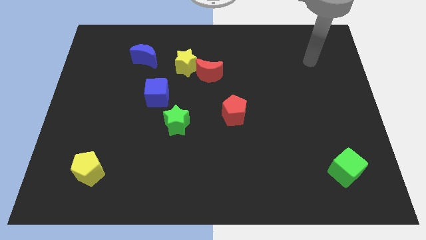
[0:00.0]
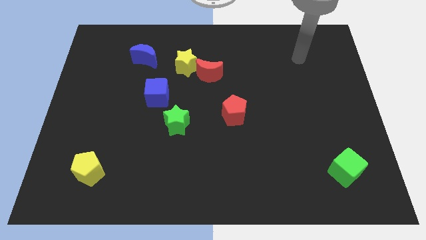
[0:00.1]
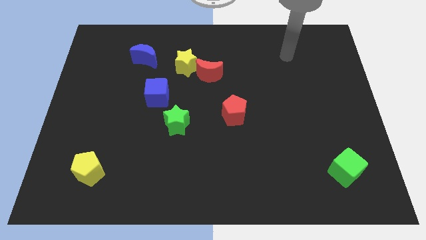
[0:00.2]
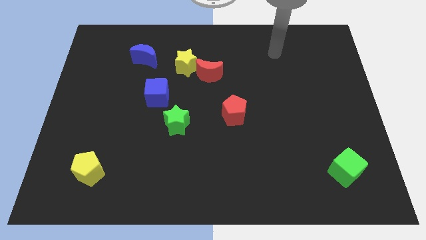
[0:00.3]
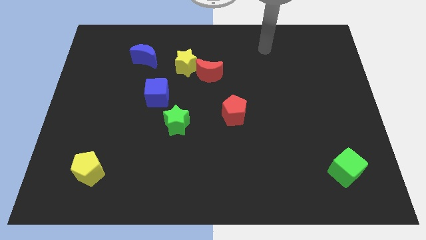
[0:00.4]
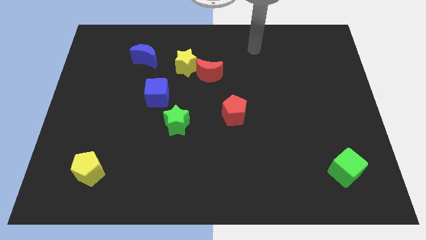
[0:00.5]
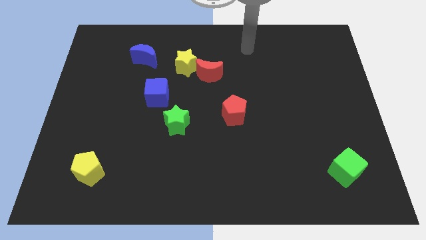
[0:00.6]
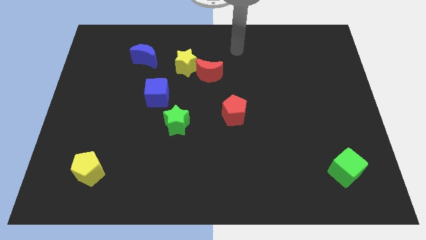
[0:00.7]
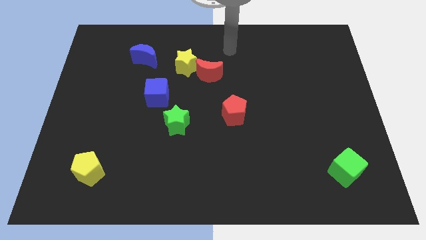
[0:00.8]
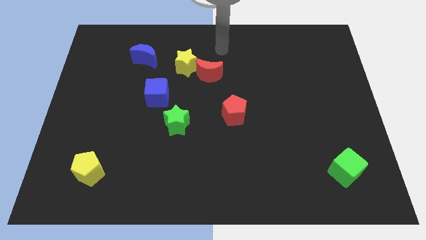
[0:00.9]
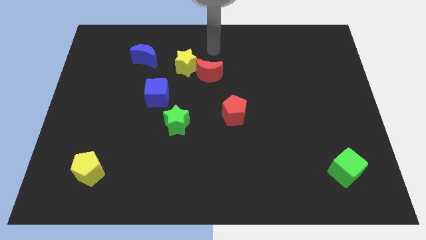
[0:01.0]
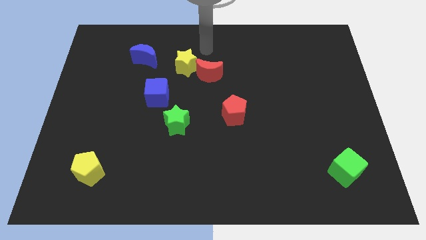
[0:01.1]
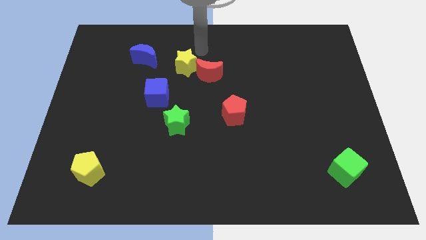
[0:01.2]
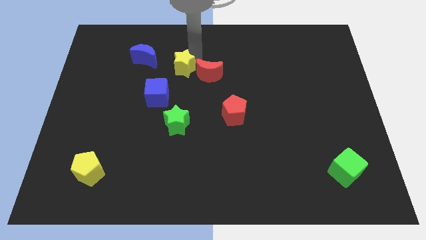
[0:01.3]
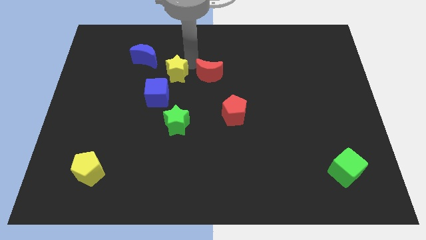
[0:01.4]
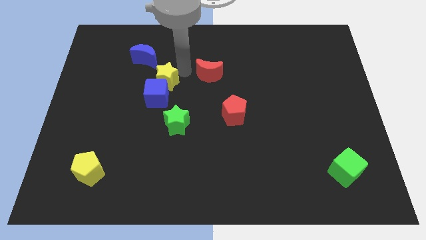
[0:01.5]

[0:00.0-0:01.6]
pull the red moon apart from the yellow star

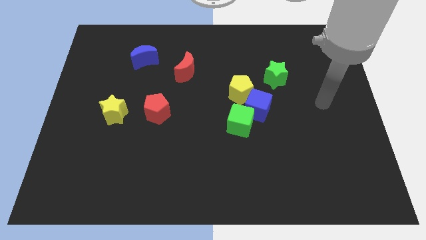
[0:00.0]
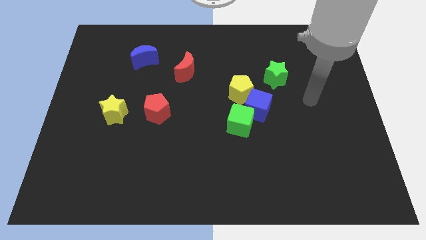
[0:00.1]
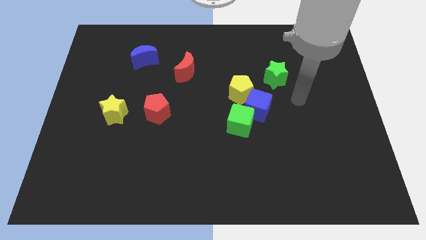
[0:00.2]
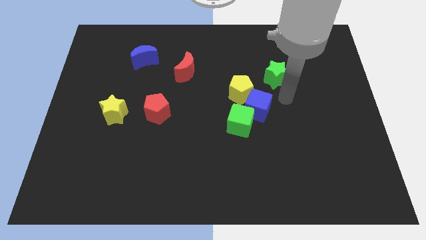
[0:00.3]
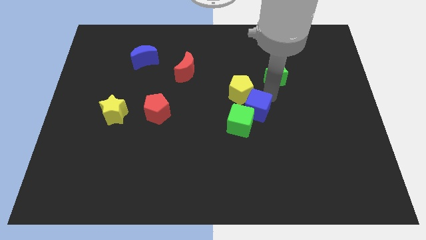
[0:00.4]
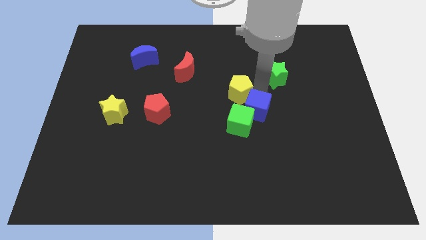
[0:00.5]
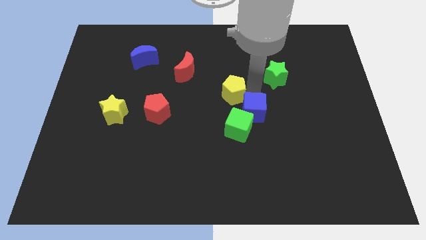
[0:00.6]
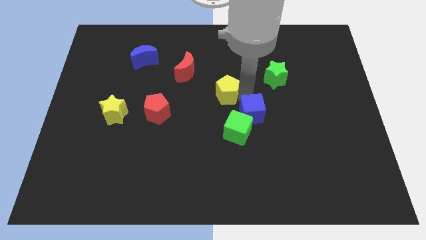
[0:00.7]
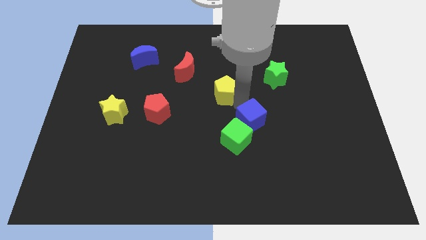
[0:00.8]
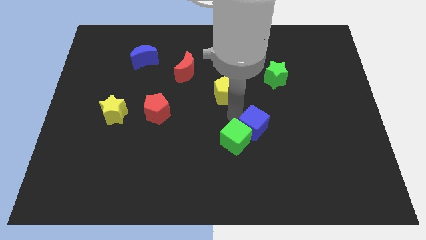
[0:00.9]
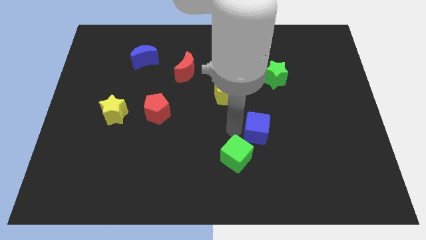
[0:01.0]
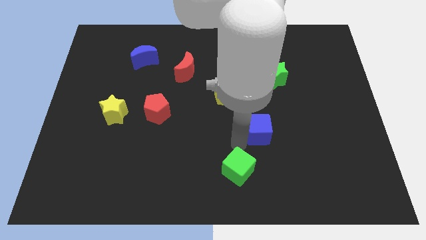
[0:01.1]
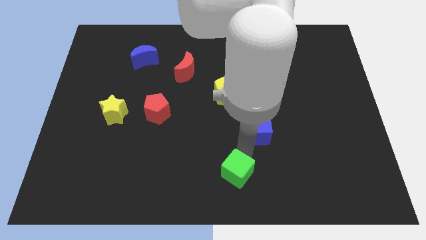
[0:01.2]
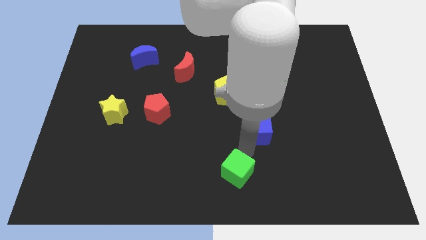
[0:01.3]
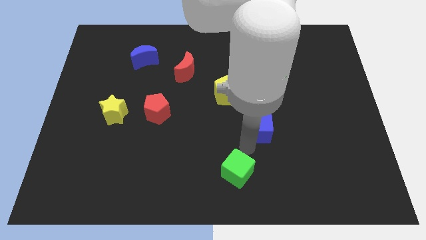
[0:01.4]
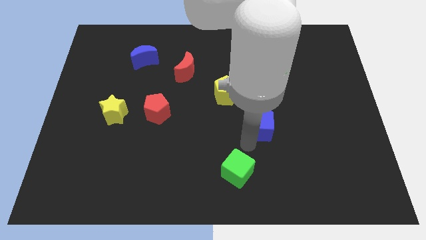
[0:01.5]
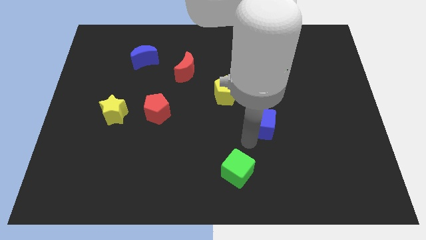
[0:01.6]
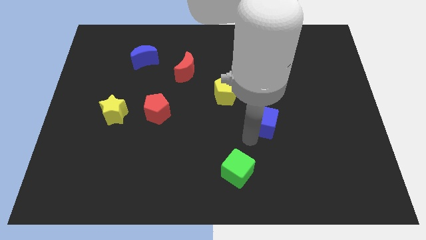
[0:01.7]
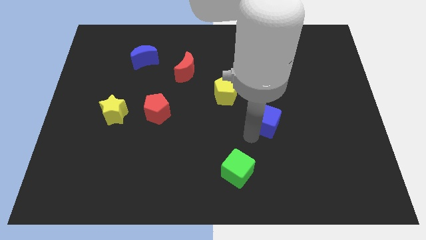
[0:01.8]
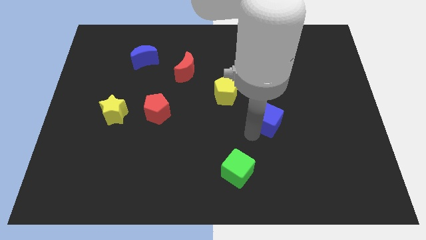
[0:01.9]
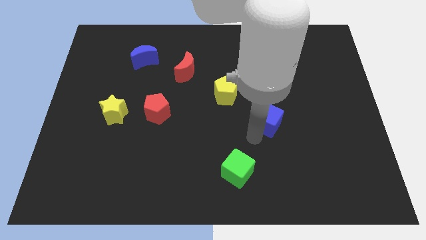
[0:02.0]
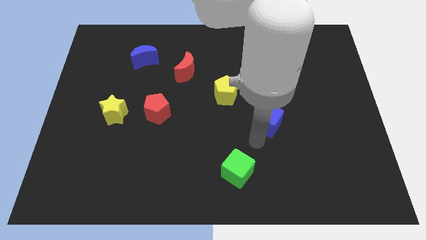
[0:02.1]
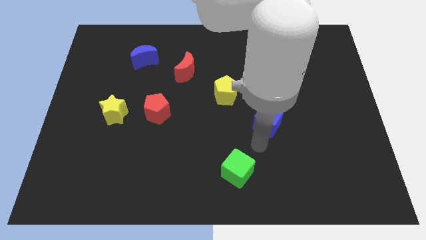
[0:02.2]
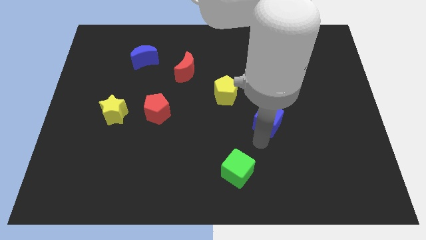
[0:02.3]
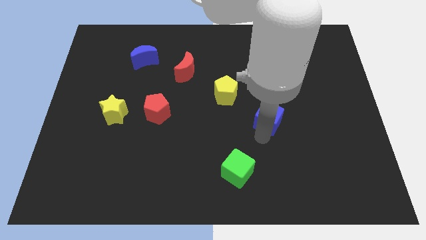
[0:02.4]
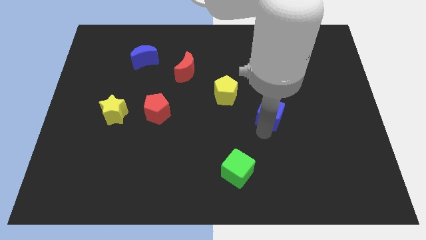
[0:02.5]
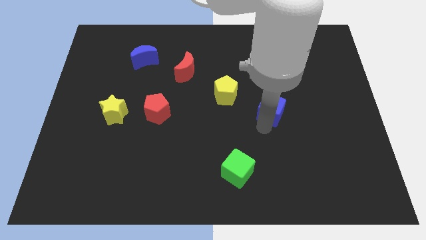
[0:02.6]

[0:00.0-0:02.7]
separate the blue cube from the green cube and yellow pentagon

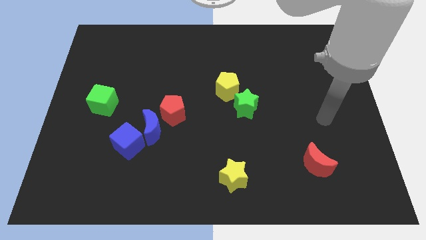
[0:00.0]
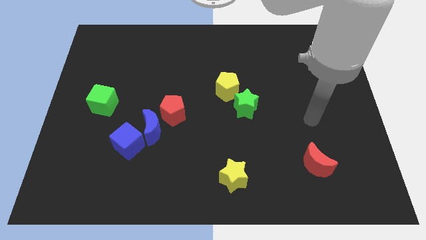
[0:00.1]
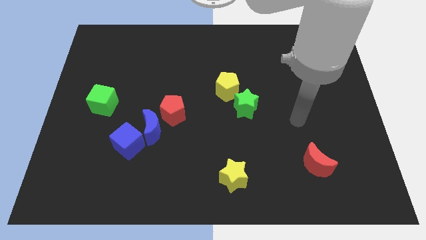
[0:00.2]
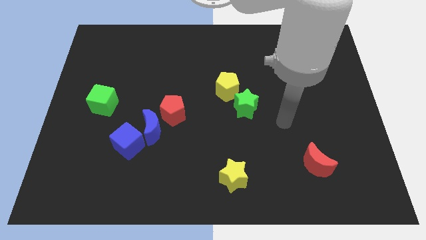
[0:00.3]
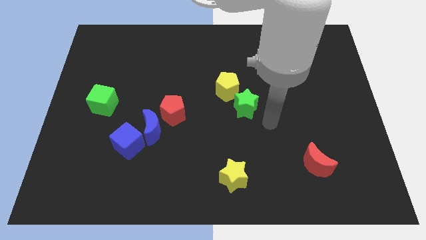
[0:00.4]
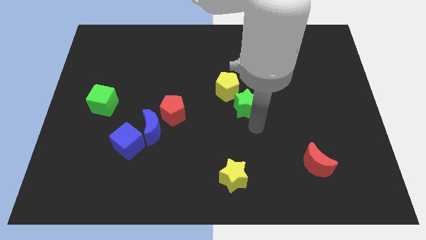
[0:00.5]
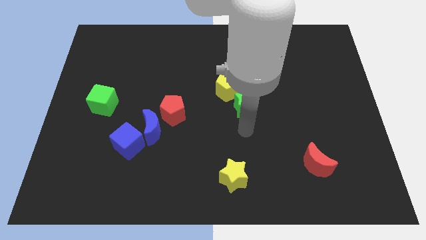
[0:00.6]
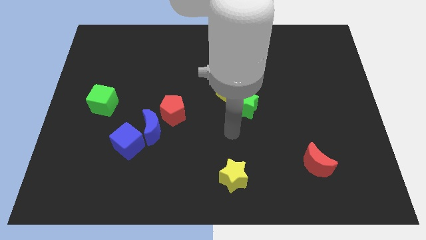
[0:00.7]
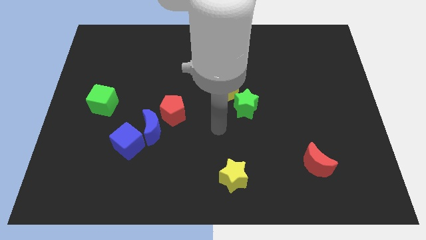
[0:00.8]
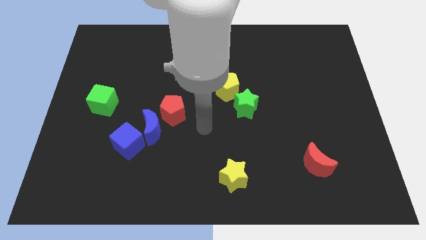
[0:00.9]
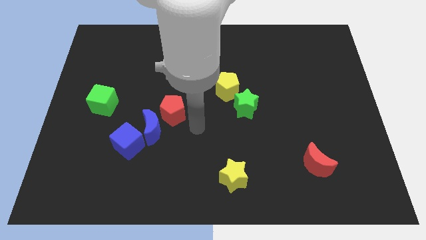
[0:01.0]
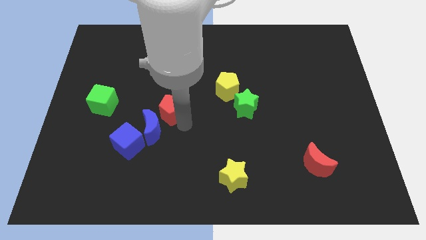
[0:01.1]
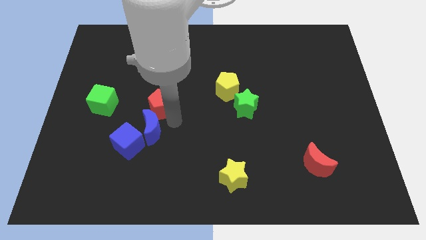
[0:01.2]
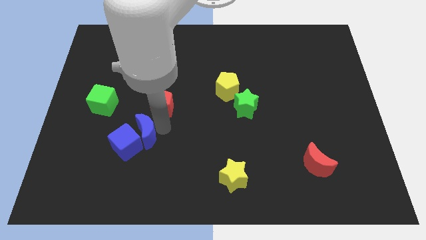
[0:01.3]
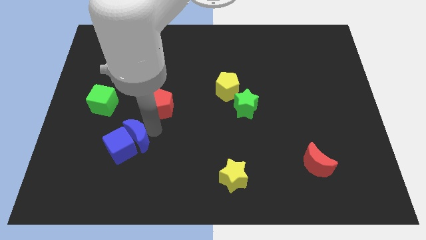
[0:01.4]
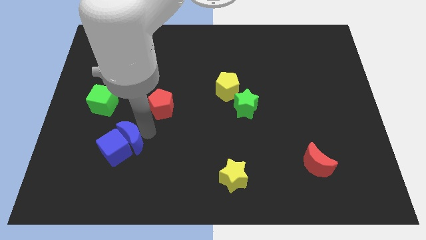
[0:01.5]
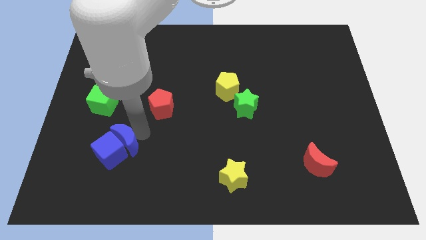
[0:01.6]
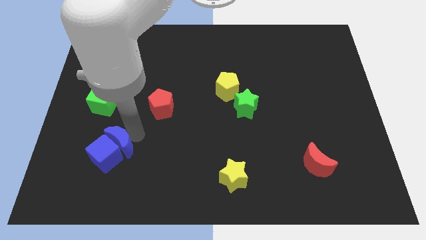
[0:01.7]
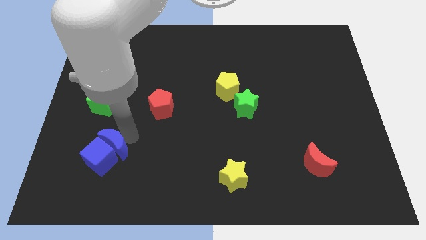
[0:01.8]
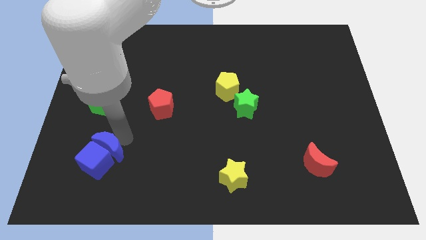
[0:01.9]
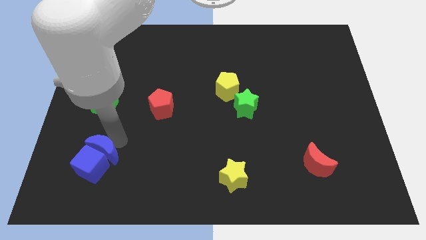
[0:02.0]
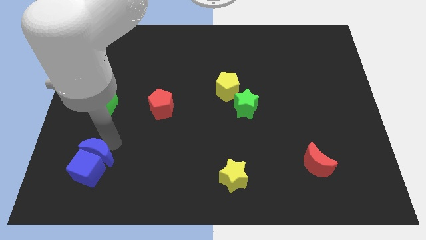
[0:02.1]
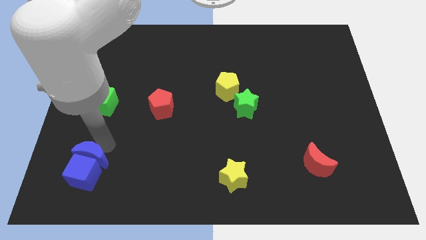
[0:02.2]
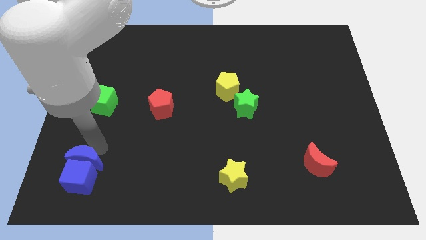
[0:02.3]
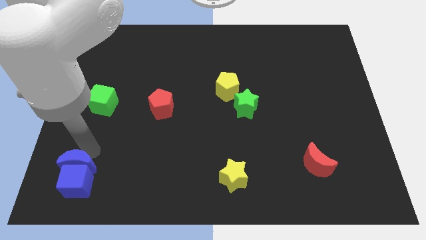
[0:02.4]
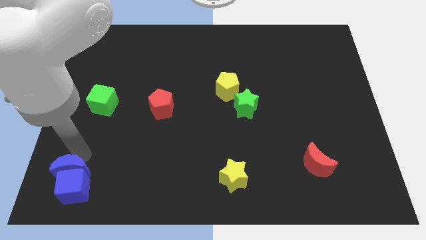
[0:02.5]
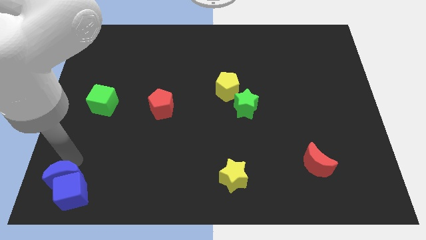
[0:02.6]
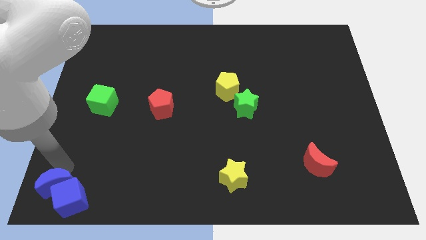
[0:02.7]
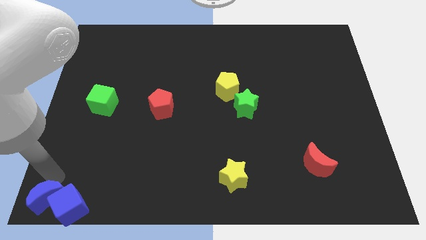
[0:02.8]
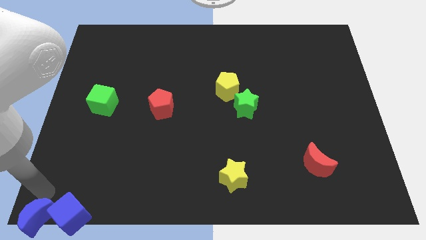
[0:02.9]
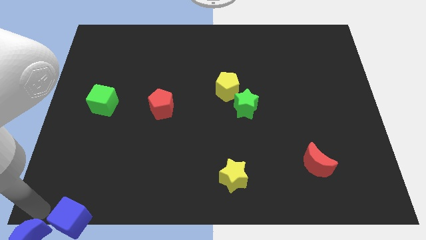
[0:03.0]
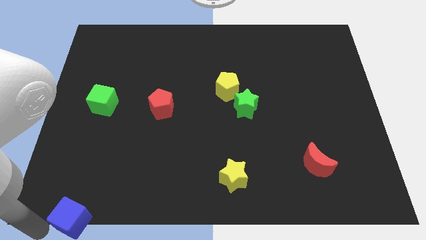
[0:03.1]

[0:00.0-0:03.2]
pull the blue cube apart from the blue moon

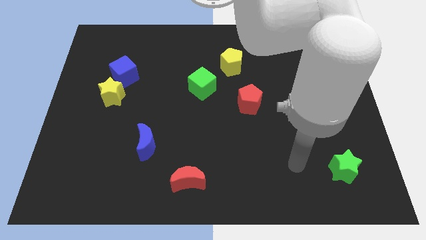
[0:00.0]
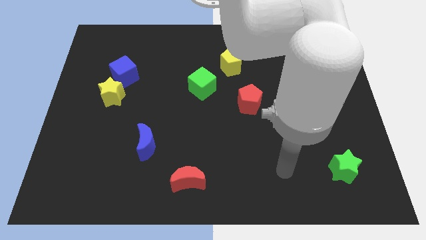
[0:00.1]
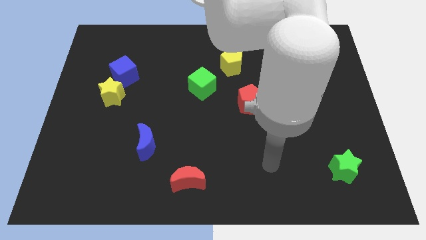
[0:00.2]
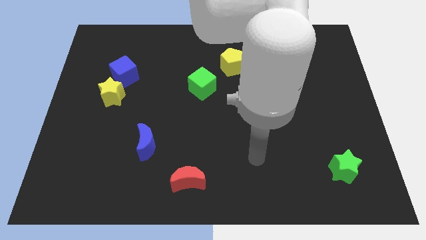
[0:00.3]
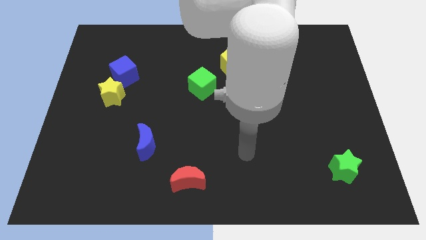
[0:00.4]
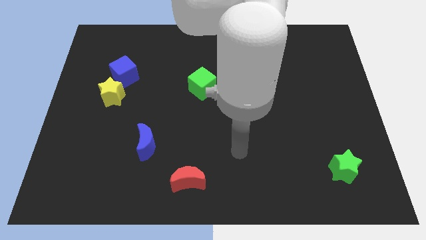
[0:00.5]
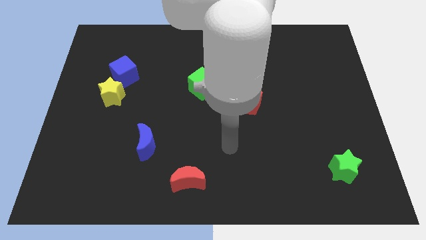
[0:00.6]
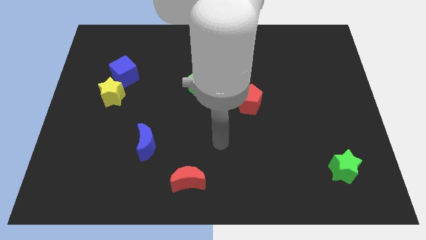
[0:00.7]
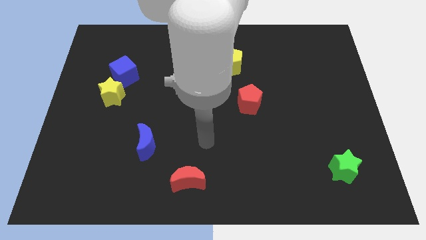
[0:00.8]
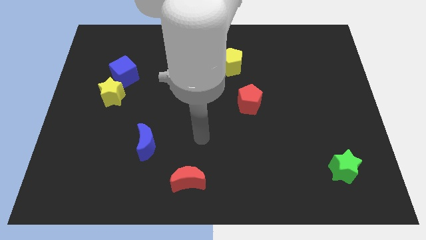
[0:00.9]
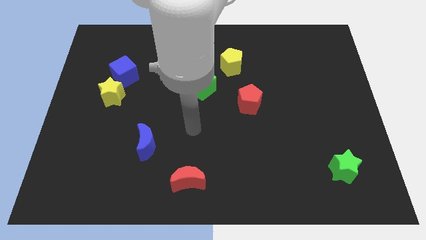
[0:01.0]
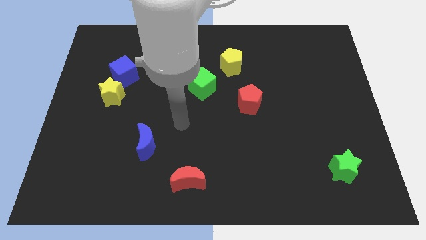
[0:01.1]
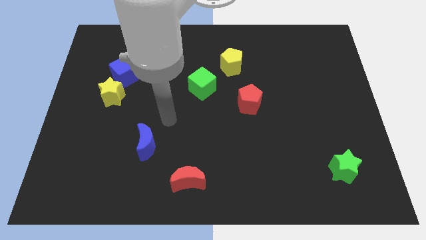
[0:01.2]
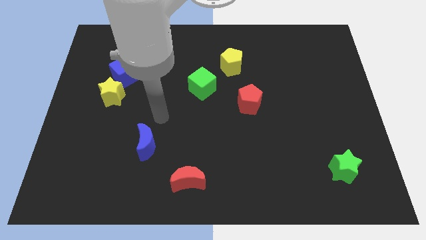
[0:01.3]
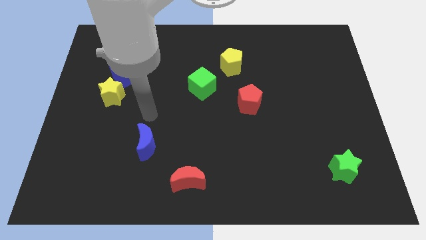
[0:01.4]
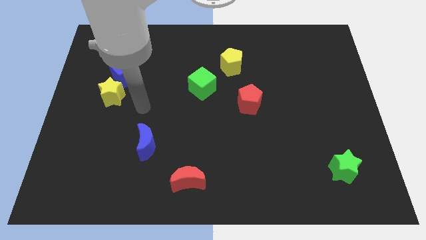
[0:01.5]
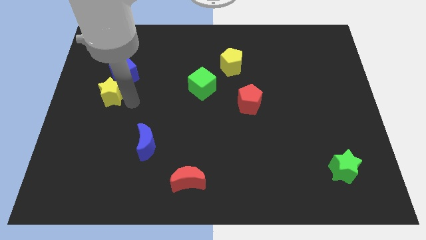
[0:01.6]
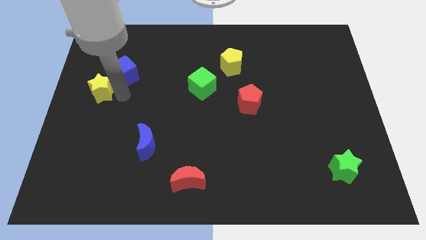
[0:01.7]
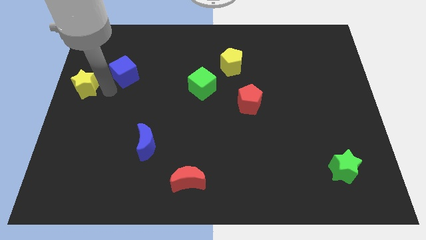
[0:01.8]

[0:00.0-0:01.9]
pull the blue cube apart from the yellow star
